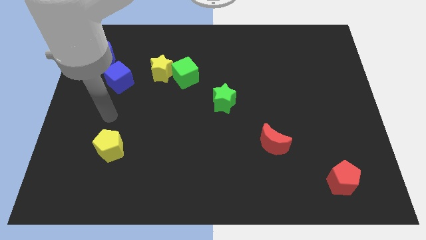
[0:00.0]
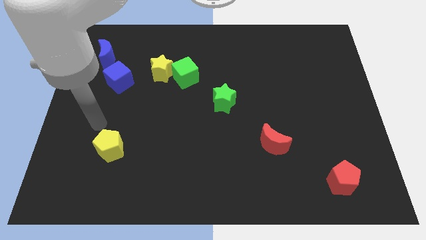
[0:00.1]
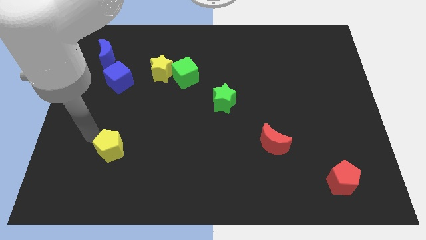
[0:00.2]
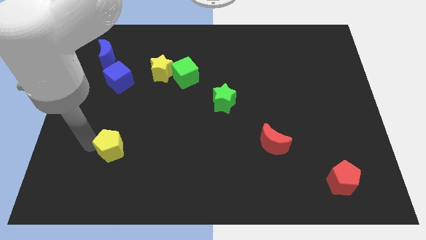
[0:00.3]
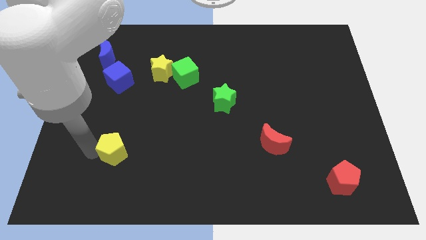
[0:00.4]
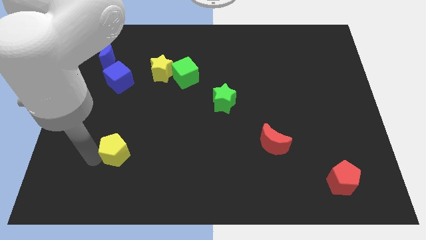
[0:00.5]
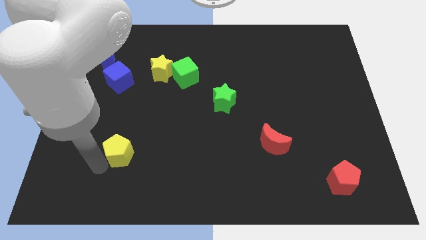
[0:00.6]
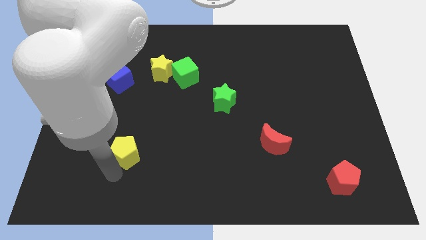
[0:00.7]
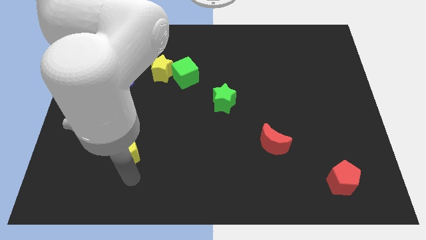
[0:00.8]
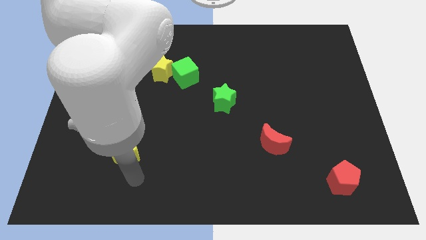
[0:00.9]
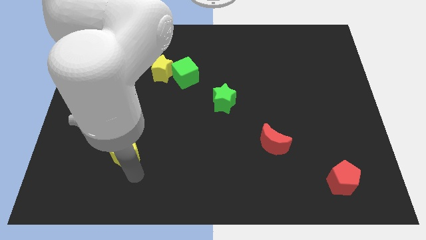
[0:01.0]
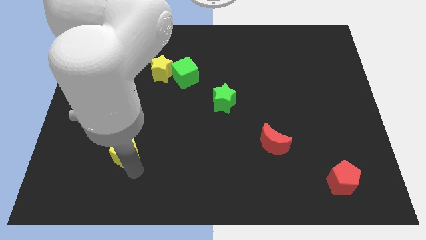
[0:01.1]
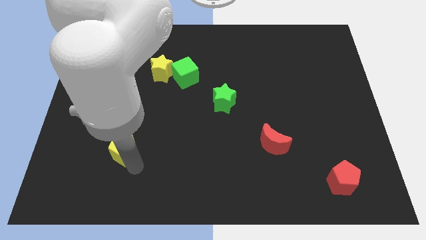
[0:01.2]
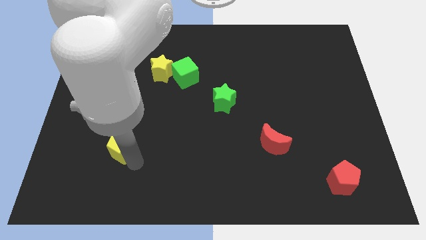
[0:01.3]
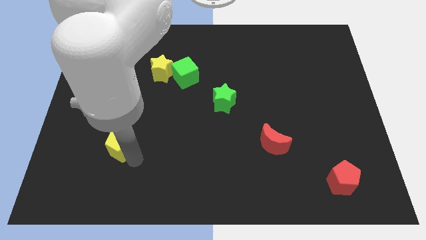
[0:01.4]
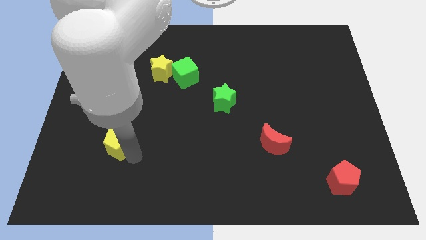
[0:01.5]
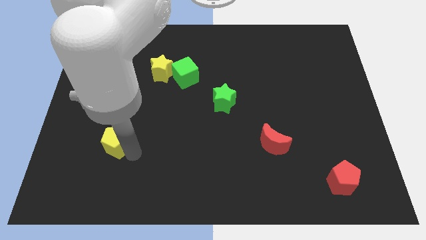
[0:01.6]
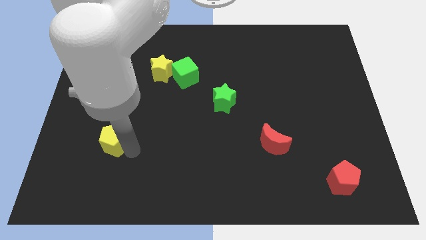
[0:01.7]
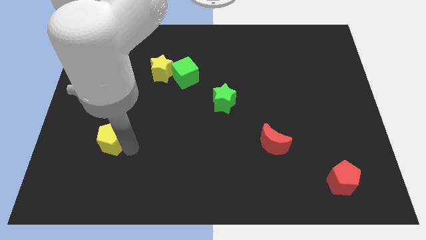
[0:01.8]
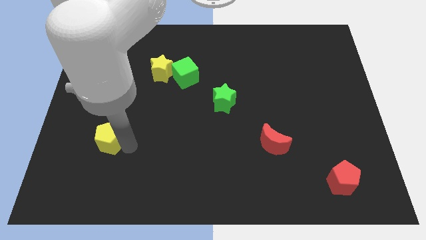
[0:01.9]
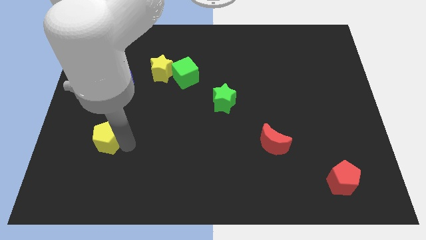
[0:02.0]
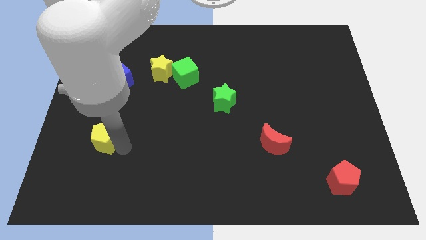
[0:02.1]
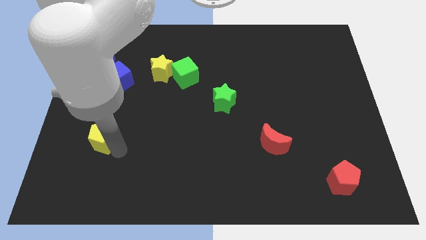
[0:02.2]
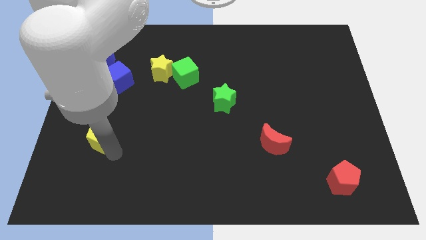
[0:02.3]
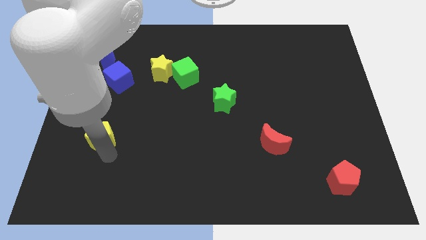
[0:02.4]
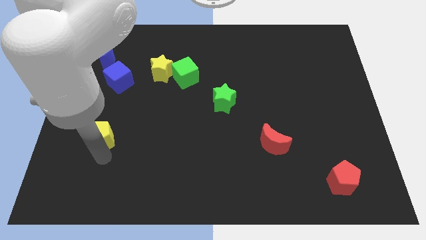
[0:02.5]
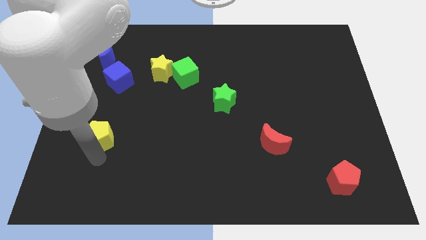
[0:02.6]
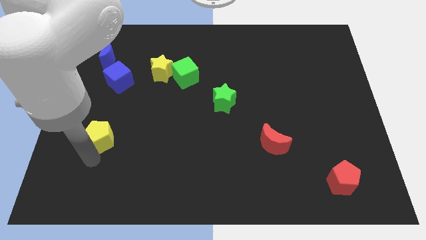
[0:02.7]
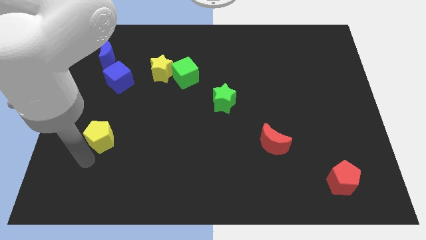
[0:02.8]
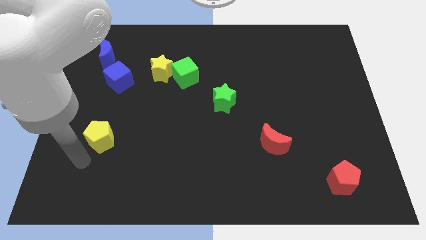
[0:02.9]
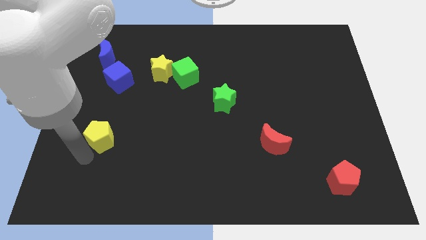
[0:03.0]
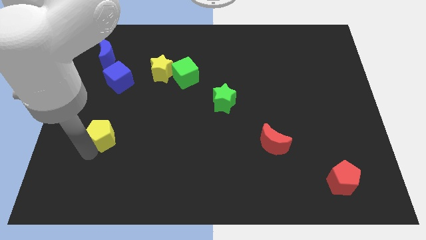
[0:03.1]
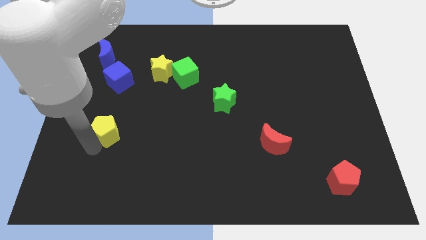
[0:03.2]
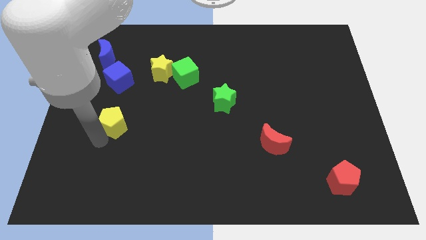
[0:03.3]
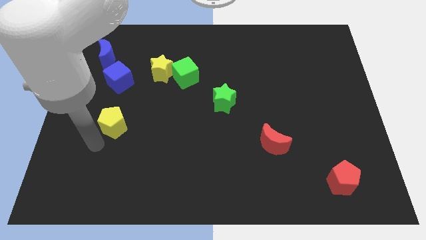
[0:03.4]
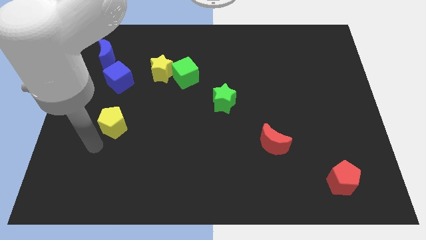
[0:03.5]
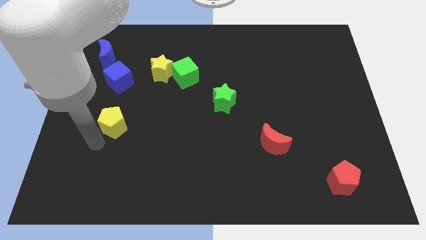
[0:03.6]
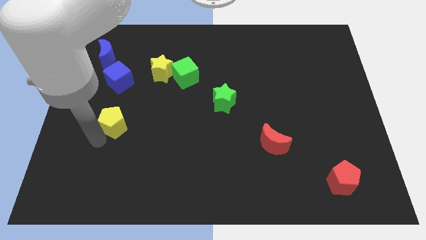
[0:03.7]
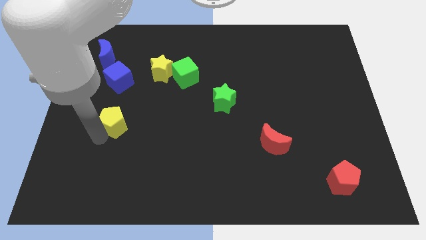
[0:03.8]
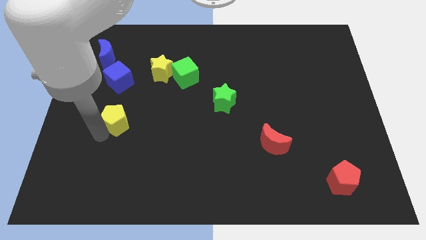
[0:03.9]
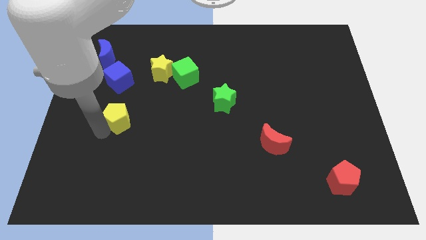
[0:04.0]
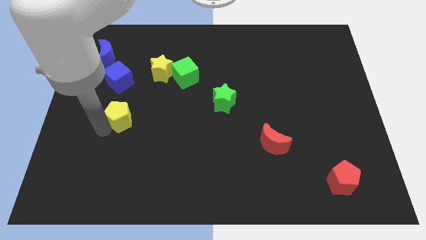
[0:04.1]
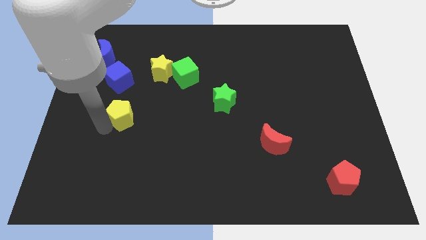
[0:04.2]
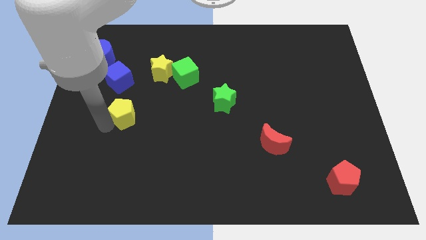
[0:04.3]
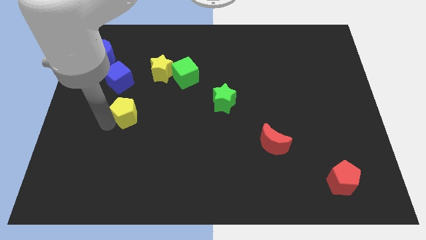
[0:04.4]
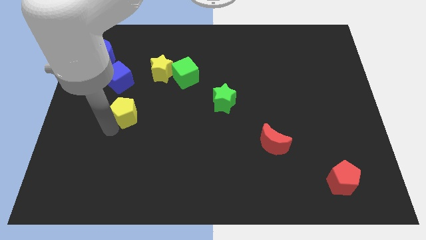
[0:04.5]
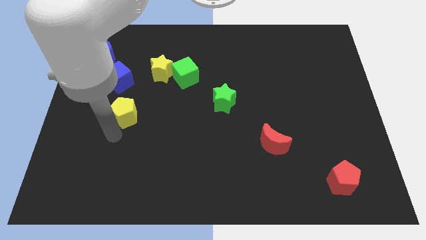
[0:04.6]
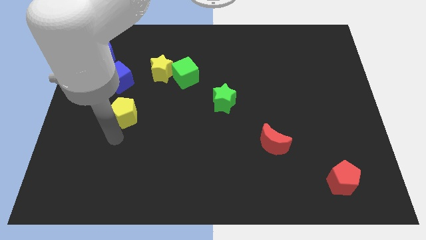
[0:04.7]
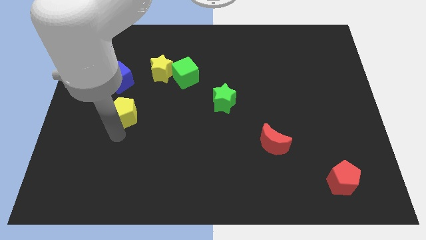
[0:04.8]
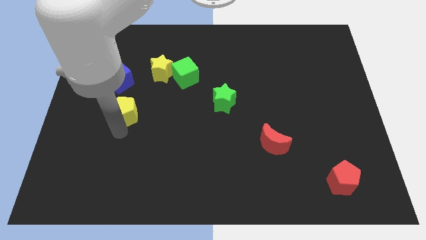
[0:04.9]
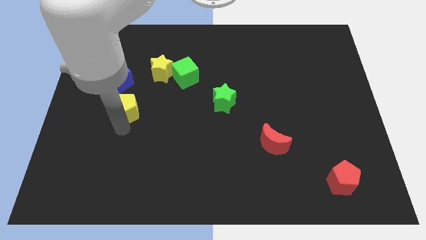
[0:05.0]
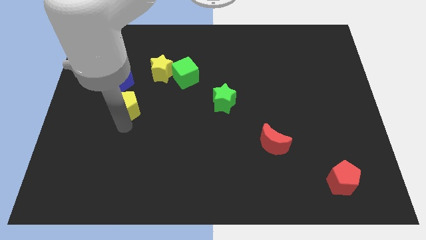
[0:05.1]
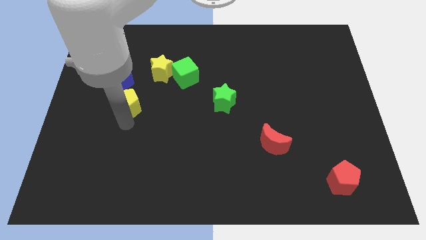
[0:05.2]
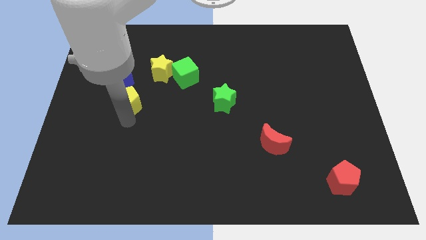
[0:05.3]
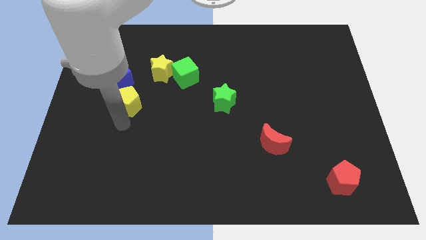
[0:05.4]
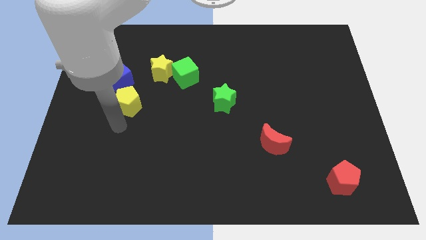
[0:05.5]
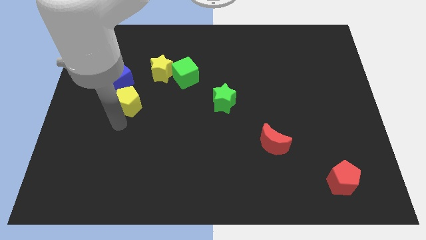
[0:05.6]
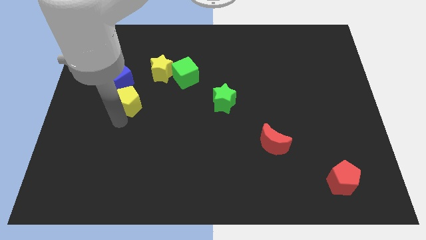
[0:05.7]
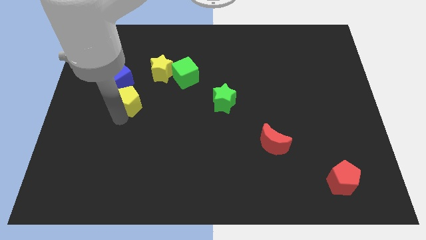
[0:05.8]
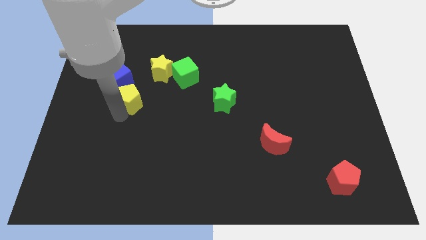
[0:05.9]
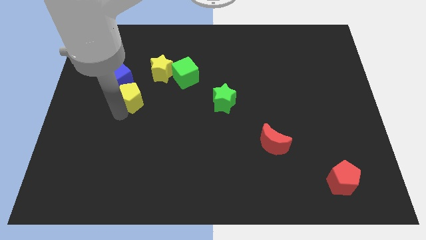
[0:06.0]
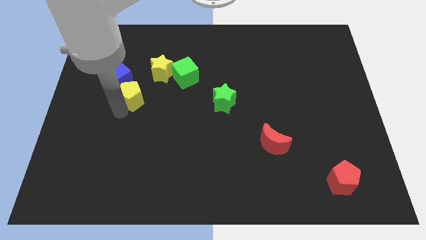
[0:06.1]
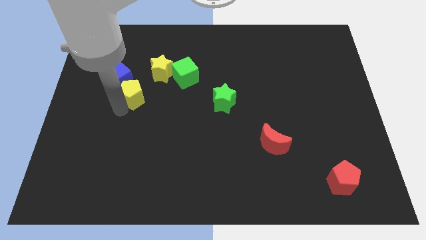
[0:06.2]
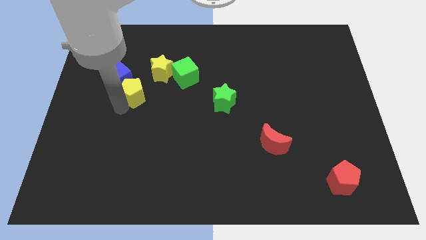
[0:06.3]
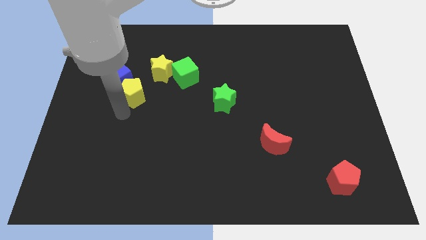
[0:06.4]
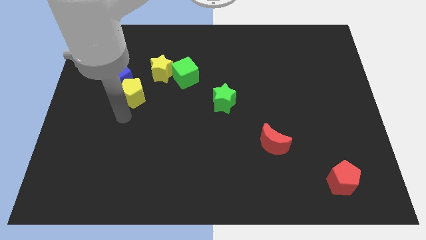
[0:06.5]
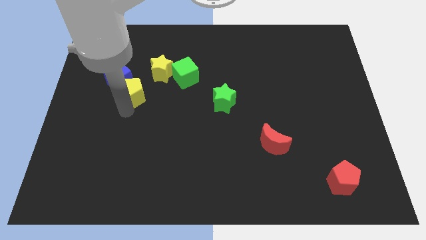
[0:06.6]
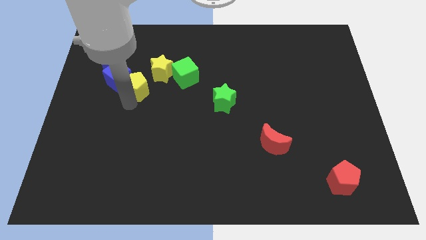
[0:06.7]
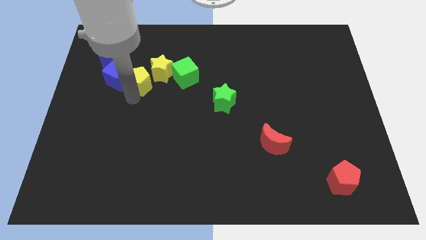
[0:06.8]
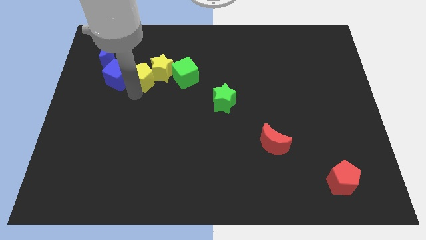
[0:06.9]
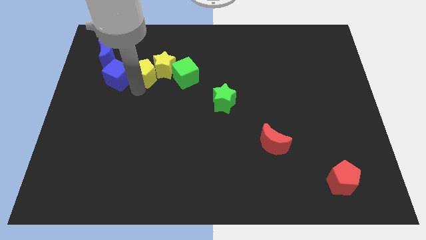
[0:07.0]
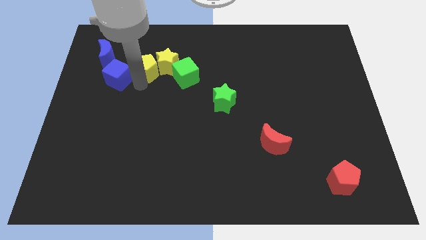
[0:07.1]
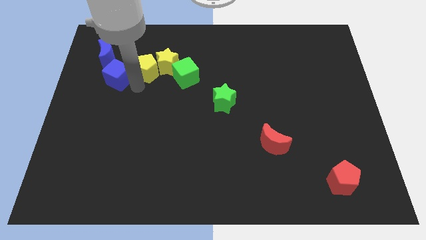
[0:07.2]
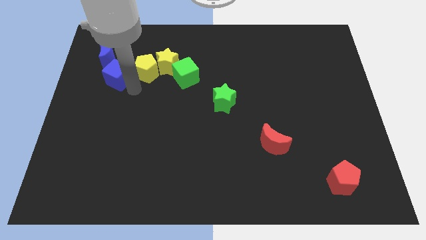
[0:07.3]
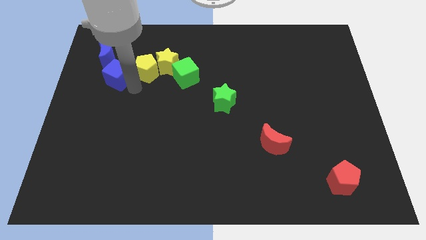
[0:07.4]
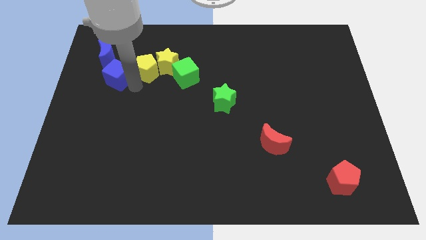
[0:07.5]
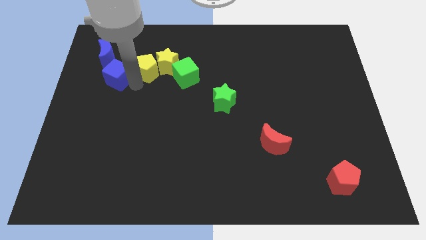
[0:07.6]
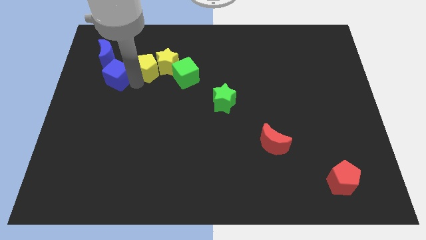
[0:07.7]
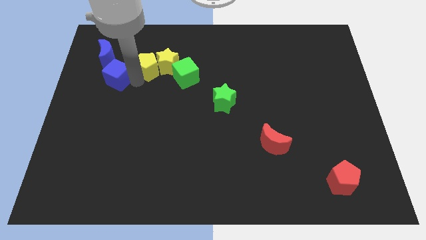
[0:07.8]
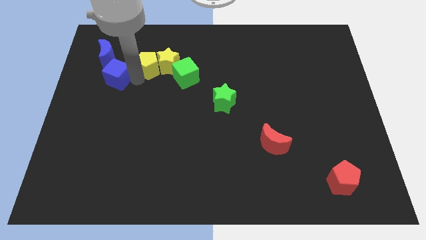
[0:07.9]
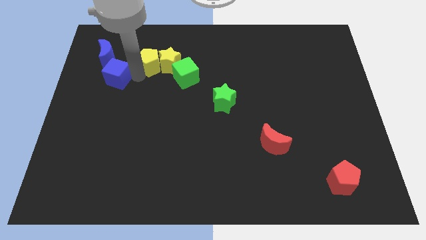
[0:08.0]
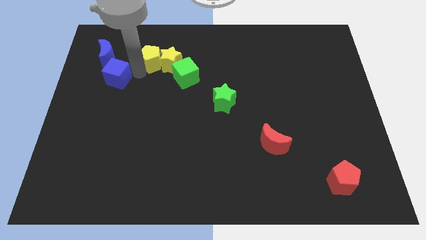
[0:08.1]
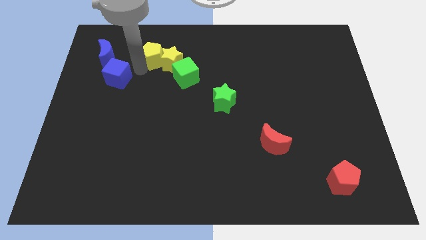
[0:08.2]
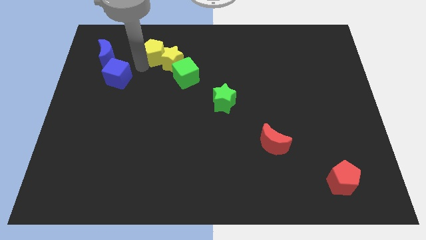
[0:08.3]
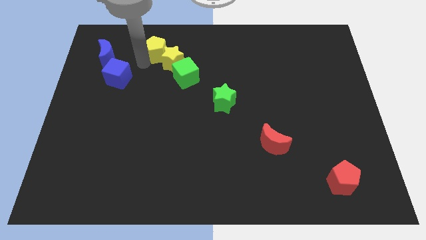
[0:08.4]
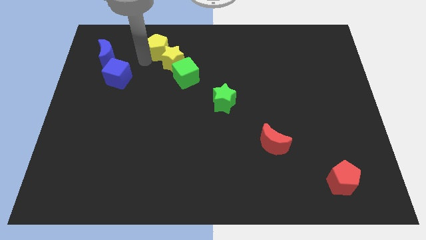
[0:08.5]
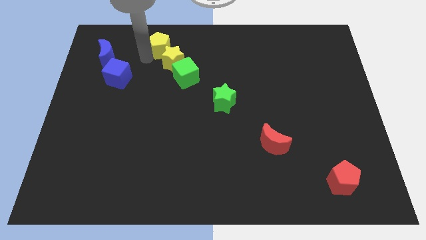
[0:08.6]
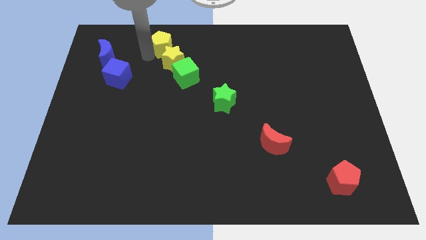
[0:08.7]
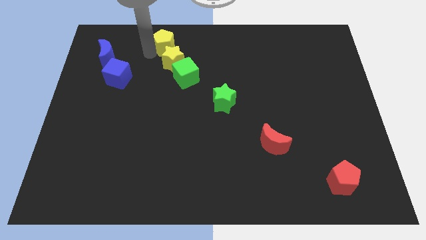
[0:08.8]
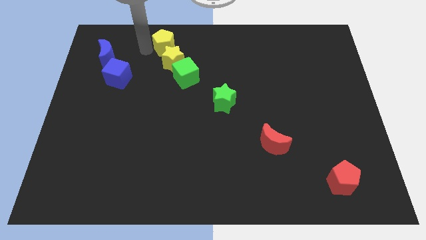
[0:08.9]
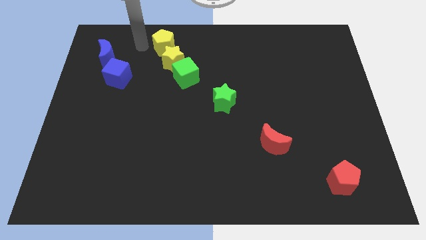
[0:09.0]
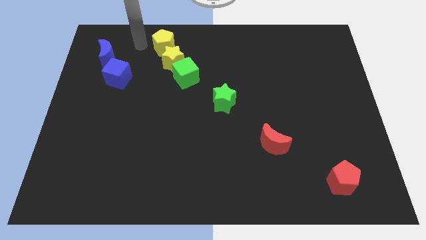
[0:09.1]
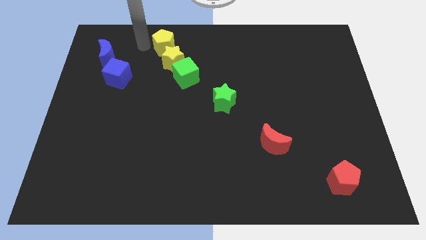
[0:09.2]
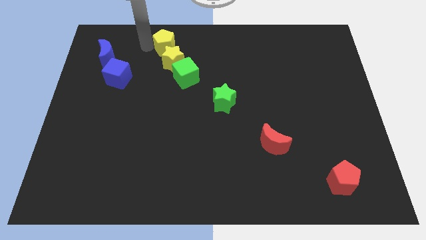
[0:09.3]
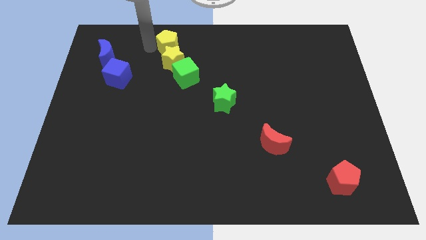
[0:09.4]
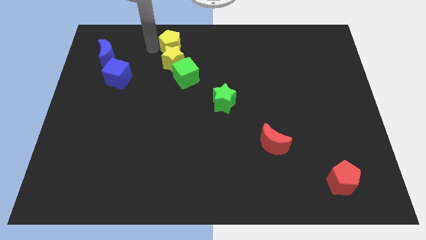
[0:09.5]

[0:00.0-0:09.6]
put the yellow pentagon to the top right side of the yellow star
